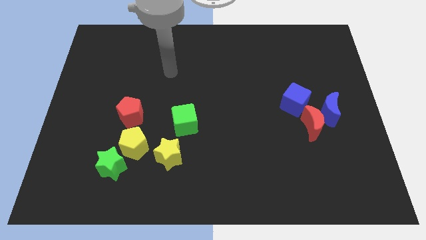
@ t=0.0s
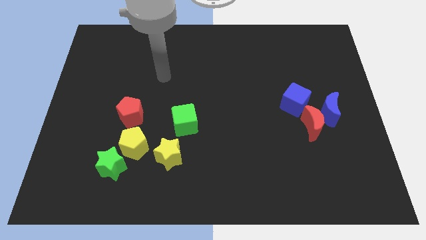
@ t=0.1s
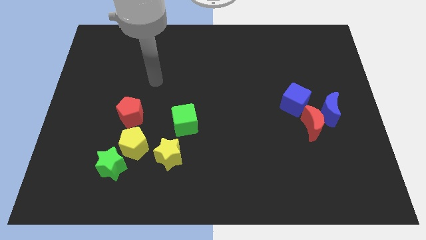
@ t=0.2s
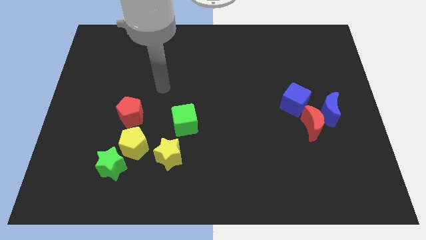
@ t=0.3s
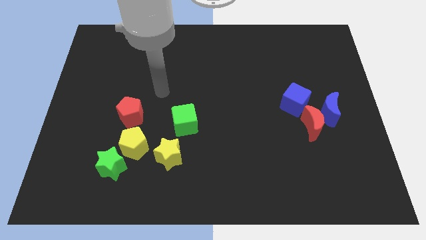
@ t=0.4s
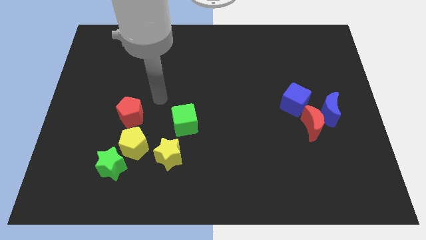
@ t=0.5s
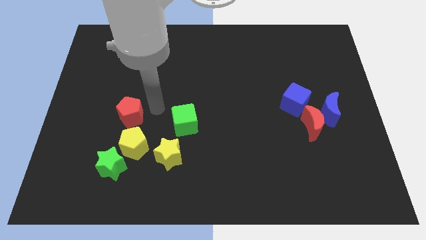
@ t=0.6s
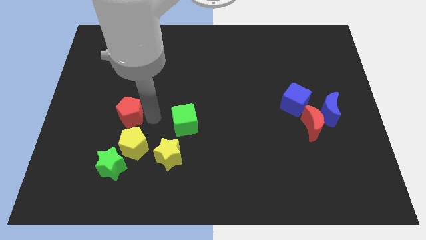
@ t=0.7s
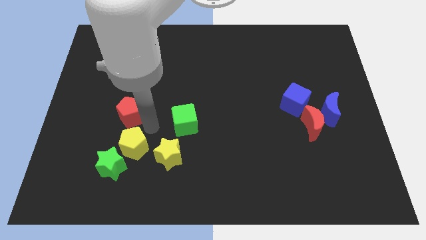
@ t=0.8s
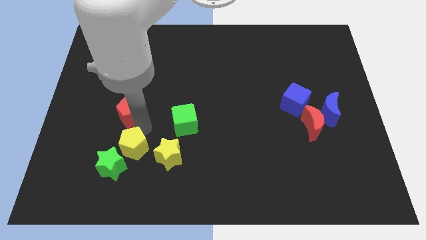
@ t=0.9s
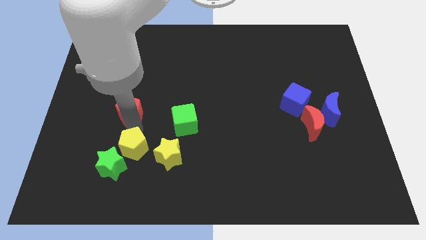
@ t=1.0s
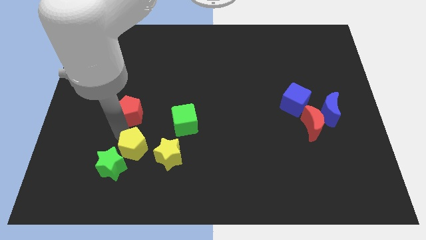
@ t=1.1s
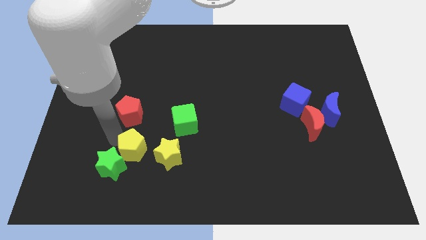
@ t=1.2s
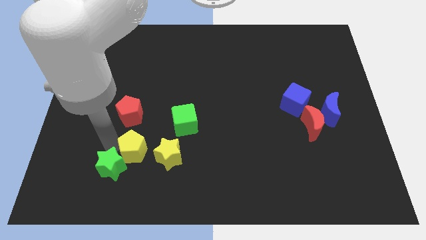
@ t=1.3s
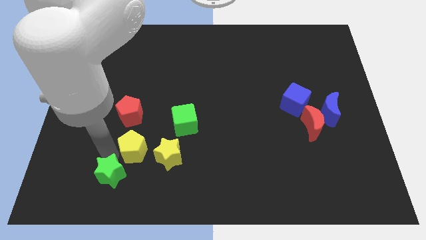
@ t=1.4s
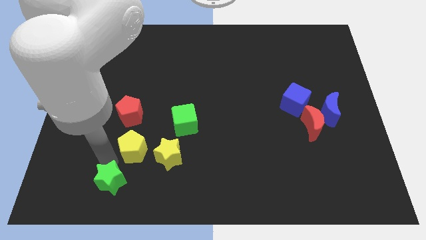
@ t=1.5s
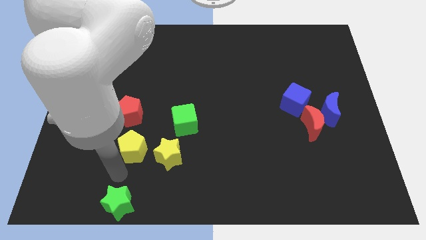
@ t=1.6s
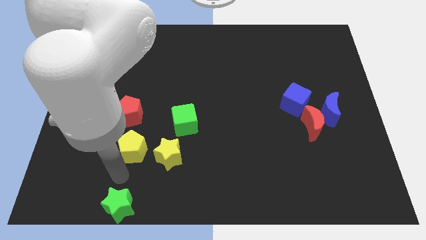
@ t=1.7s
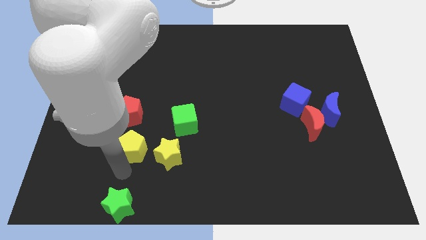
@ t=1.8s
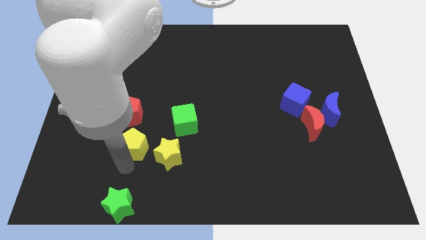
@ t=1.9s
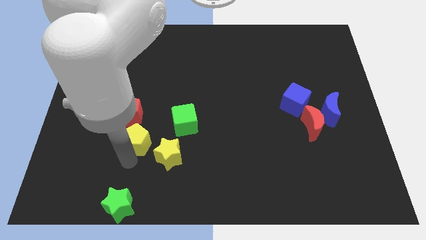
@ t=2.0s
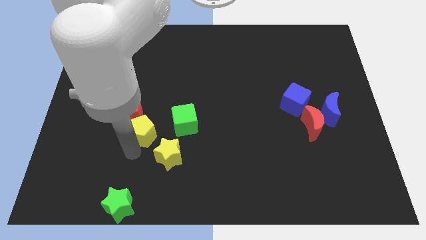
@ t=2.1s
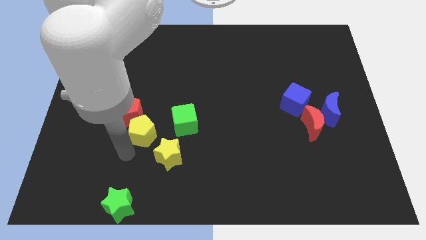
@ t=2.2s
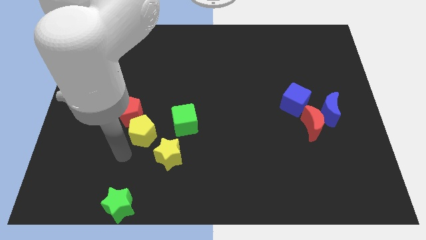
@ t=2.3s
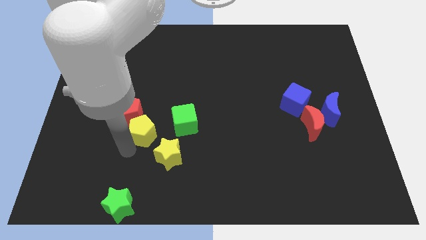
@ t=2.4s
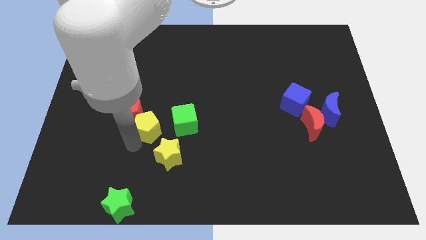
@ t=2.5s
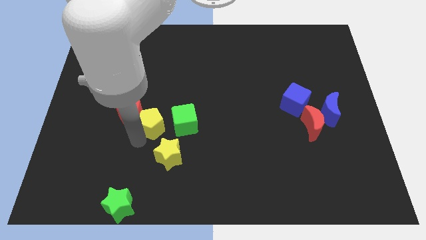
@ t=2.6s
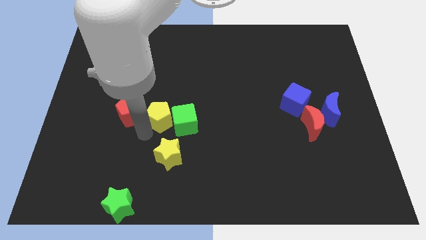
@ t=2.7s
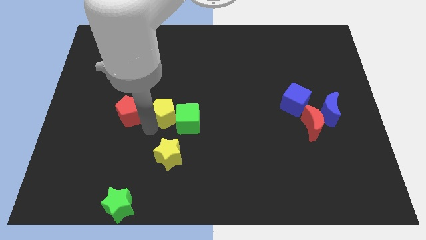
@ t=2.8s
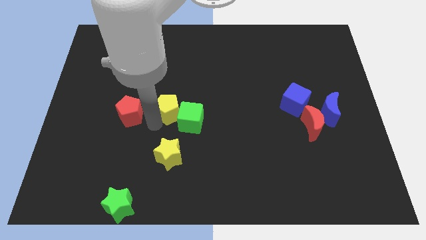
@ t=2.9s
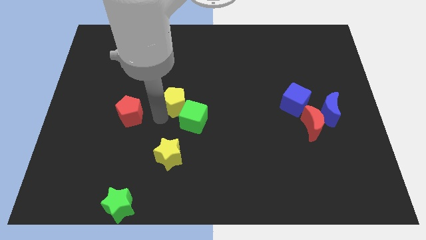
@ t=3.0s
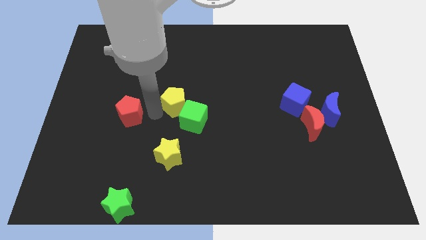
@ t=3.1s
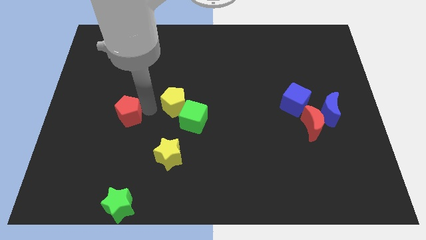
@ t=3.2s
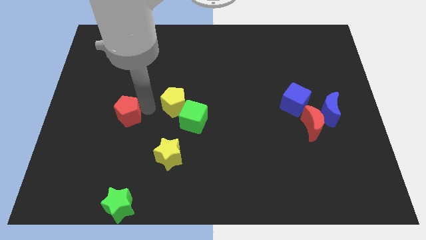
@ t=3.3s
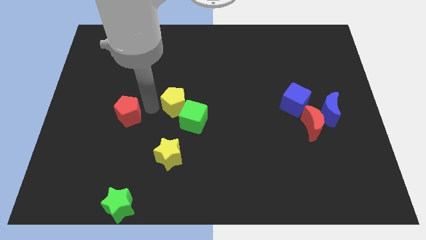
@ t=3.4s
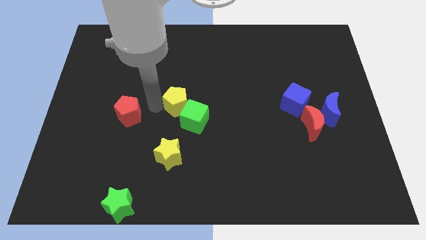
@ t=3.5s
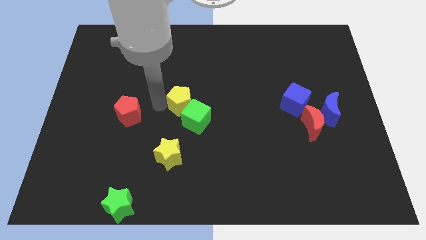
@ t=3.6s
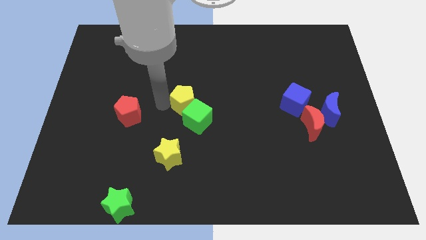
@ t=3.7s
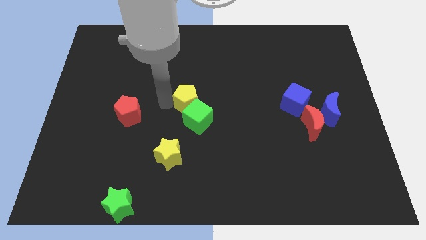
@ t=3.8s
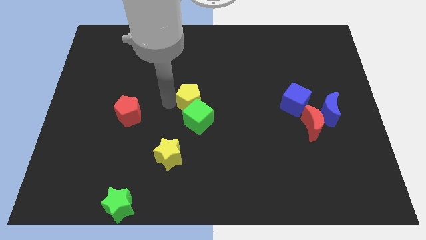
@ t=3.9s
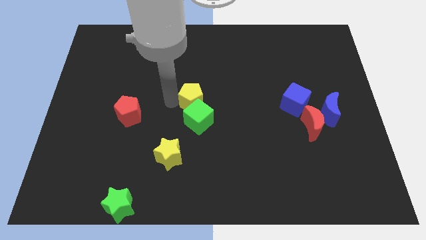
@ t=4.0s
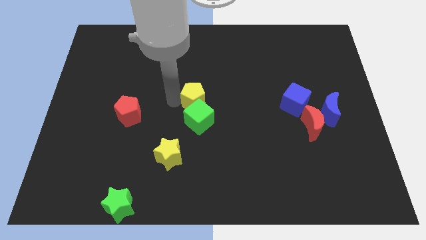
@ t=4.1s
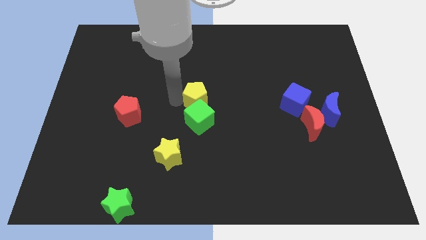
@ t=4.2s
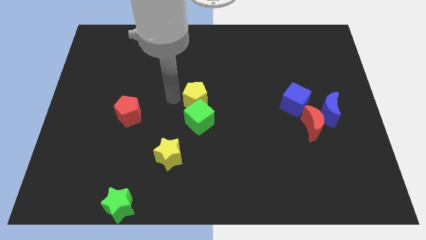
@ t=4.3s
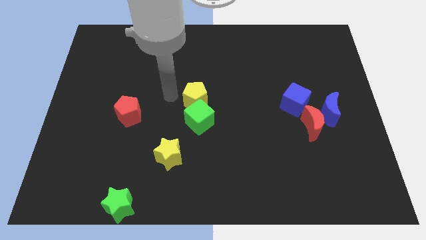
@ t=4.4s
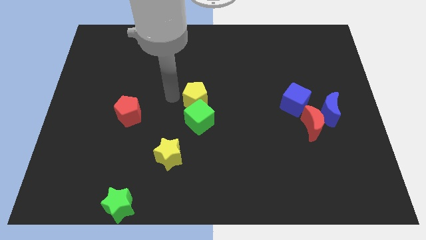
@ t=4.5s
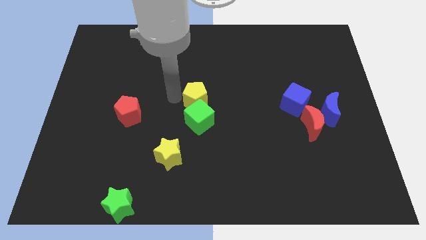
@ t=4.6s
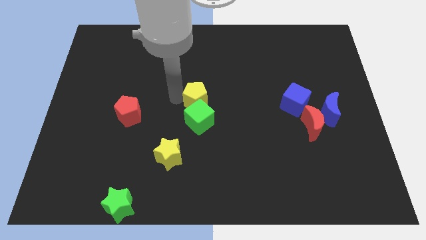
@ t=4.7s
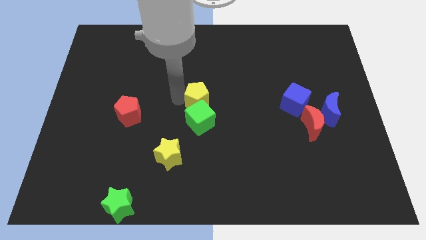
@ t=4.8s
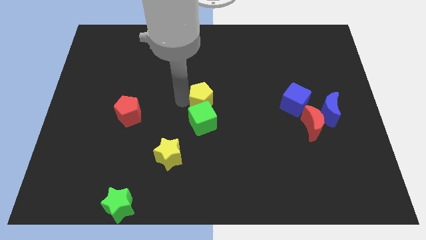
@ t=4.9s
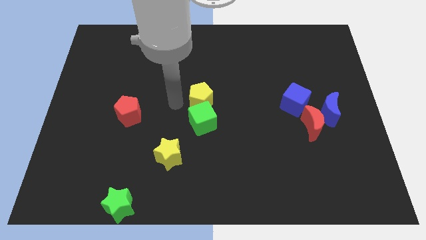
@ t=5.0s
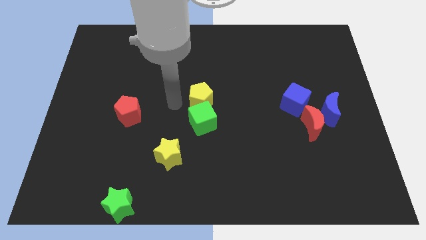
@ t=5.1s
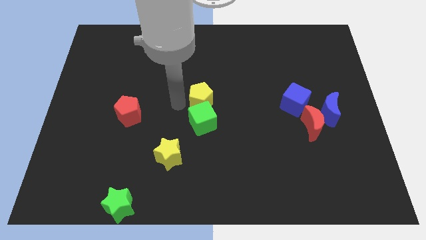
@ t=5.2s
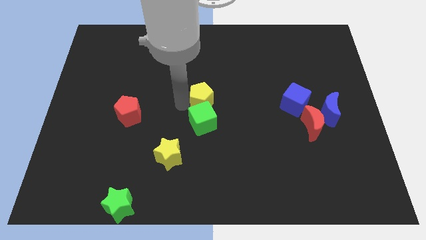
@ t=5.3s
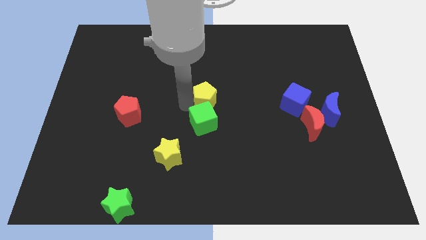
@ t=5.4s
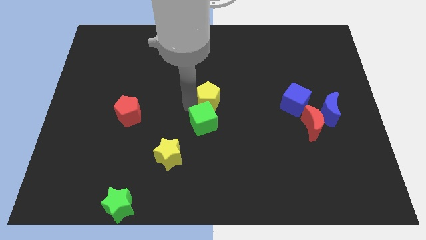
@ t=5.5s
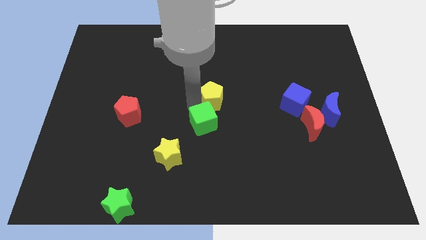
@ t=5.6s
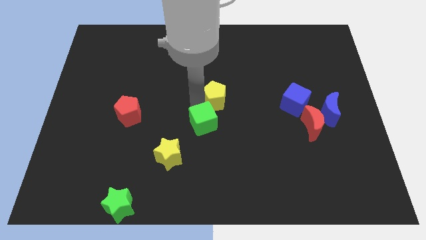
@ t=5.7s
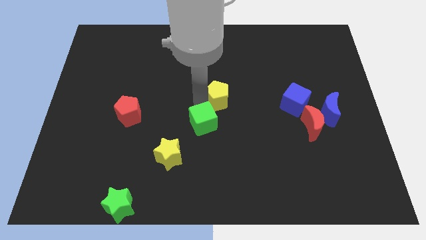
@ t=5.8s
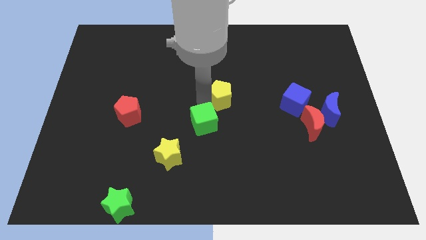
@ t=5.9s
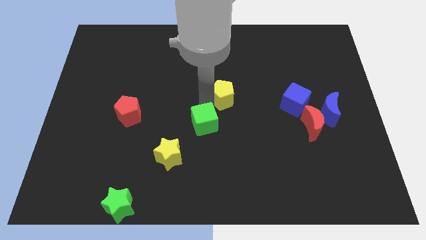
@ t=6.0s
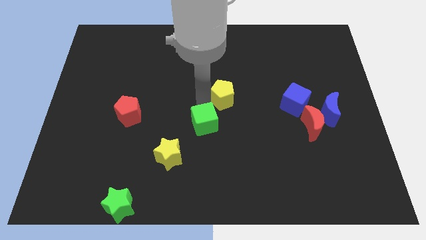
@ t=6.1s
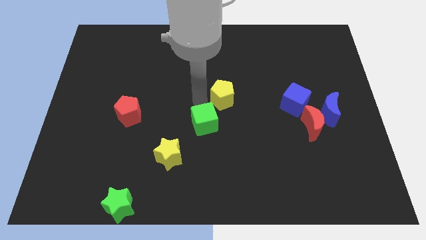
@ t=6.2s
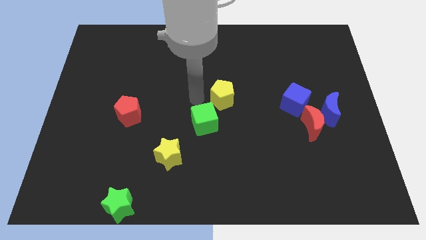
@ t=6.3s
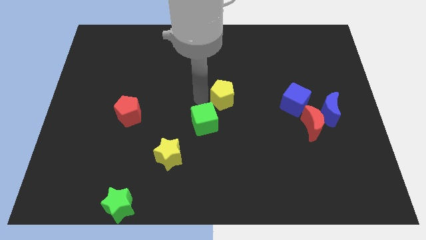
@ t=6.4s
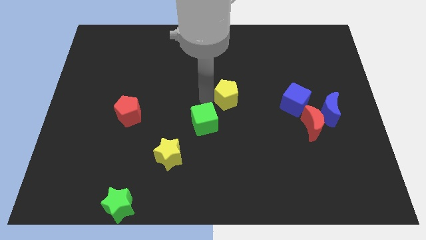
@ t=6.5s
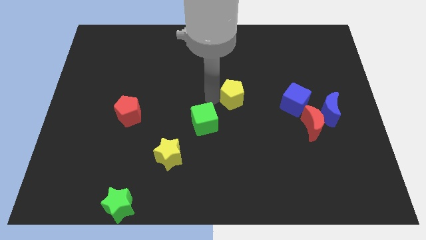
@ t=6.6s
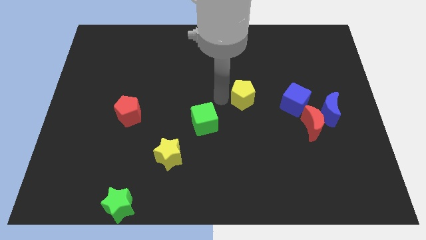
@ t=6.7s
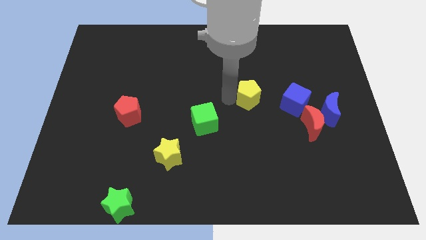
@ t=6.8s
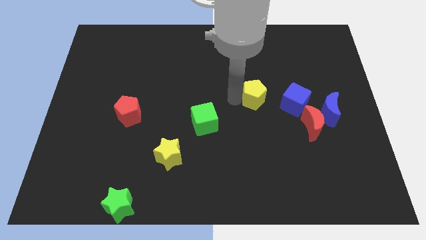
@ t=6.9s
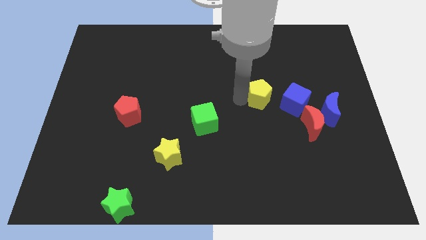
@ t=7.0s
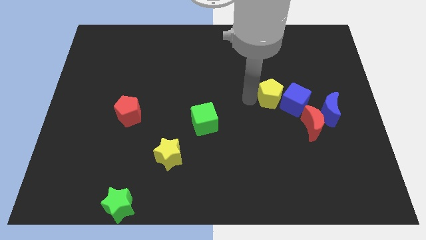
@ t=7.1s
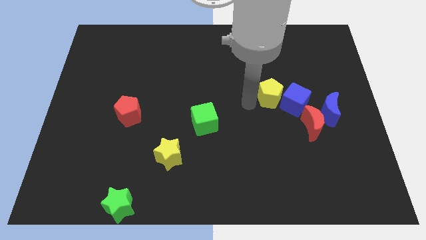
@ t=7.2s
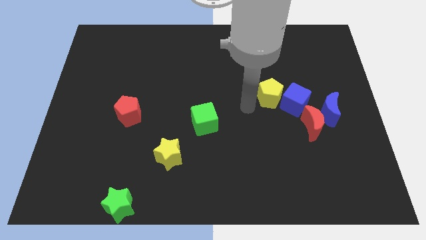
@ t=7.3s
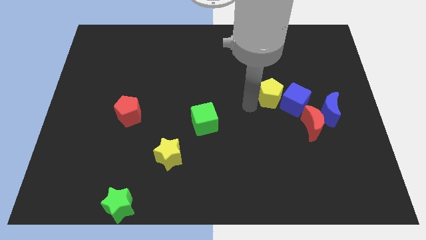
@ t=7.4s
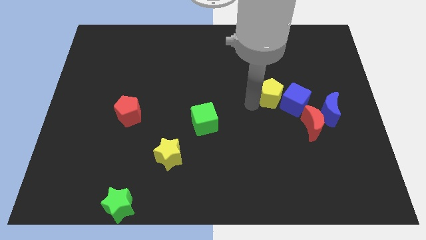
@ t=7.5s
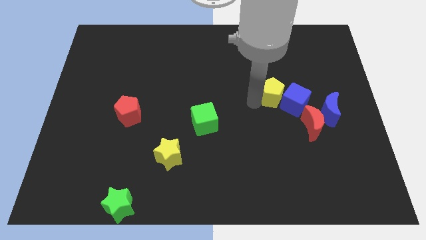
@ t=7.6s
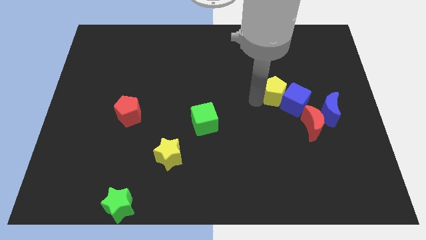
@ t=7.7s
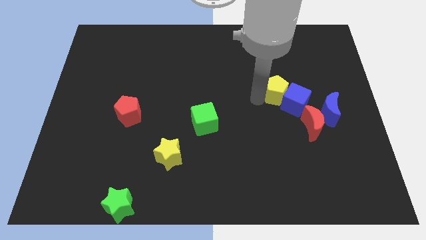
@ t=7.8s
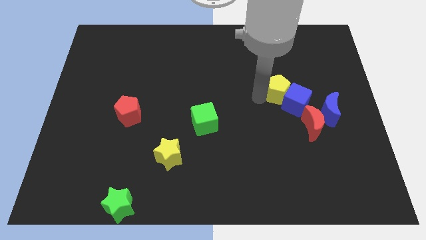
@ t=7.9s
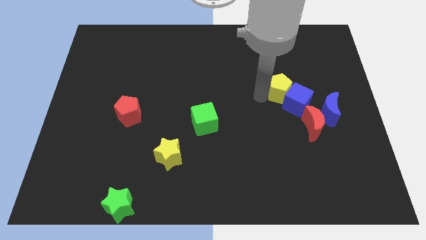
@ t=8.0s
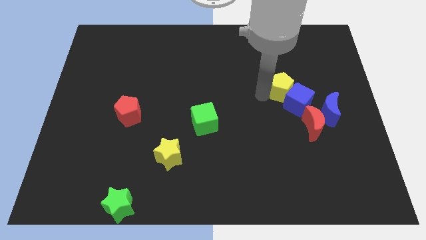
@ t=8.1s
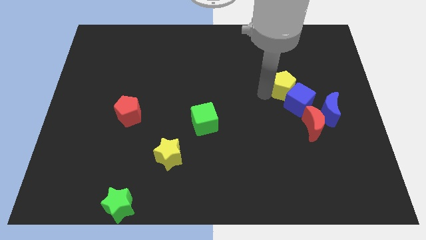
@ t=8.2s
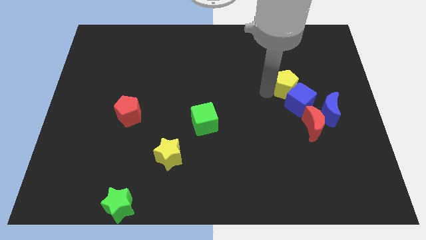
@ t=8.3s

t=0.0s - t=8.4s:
slide the yellow pentagon above the red moon
